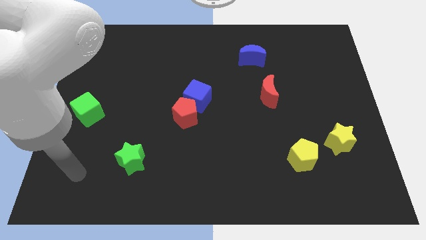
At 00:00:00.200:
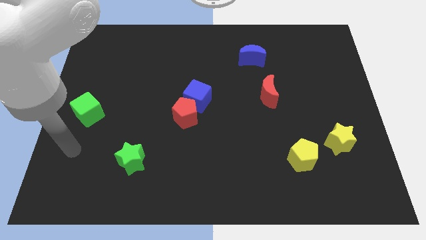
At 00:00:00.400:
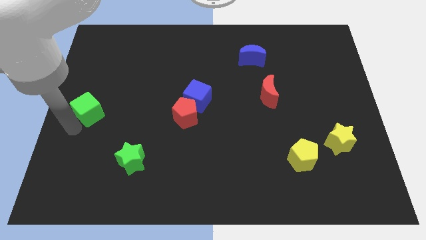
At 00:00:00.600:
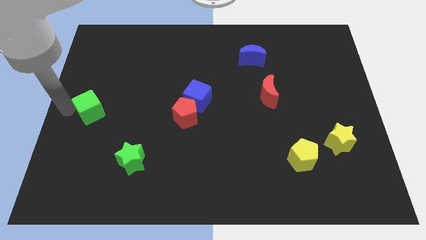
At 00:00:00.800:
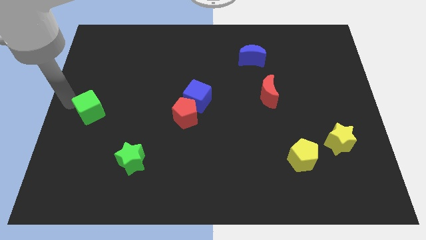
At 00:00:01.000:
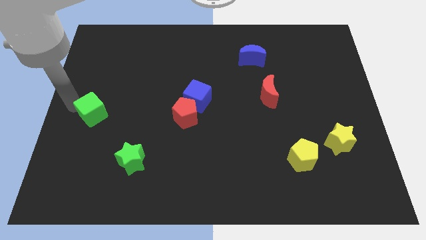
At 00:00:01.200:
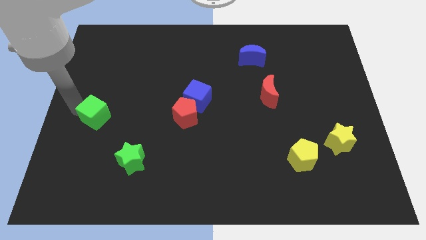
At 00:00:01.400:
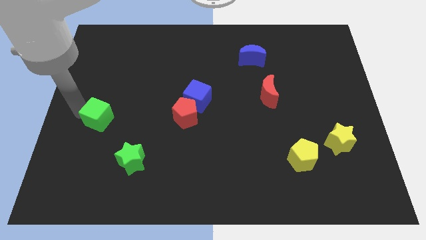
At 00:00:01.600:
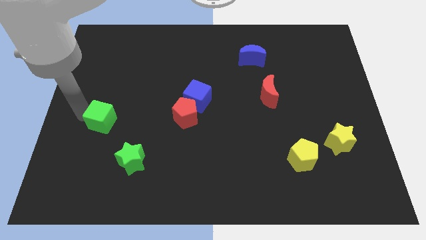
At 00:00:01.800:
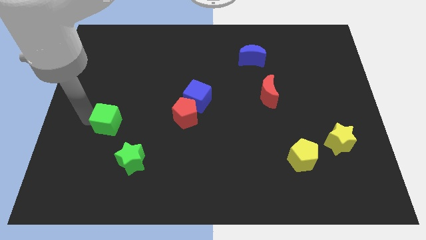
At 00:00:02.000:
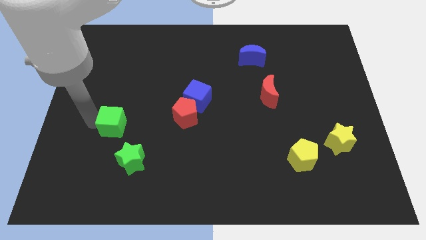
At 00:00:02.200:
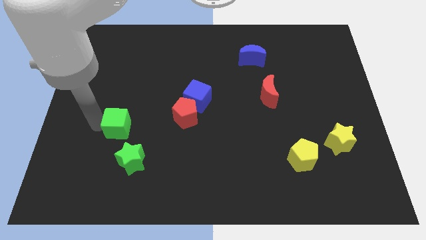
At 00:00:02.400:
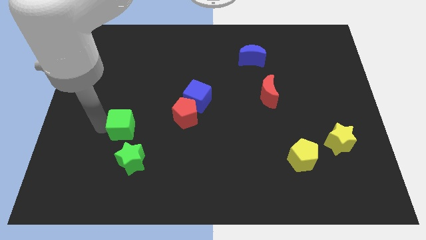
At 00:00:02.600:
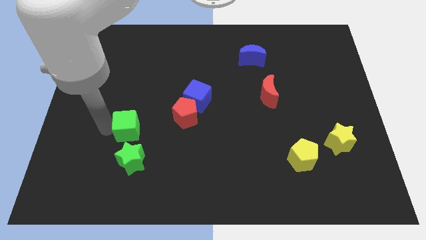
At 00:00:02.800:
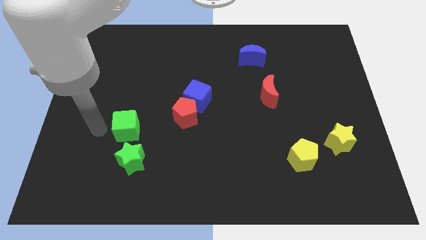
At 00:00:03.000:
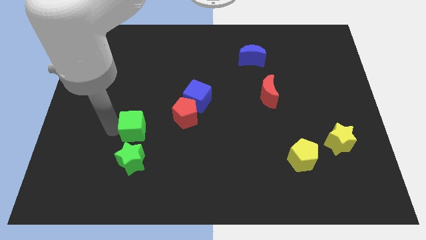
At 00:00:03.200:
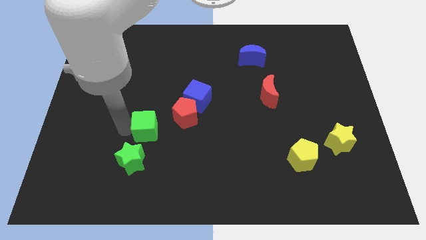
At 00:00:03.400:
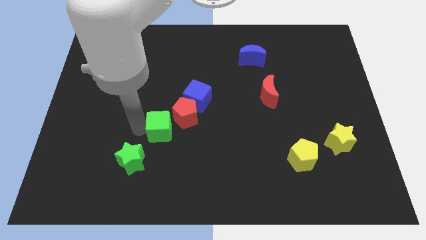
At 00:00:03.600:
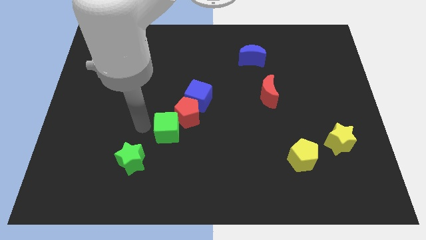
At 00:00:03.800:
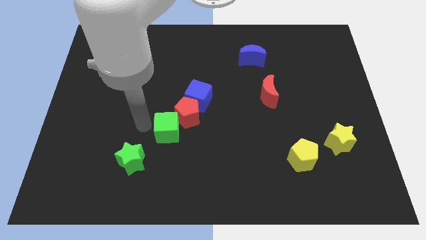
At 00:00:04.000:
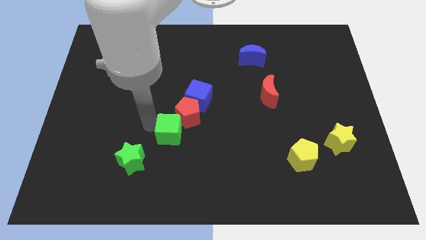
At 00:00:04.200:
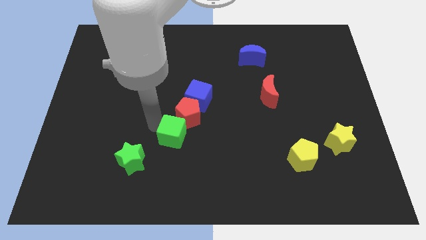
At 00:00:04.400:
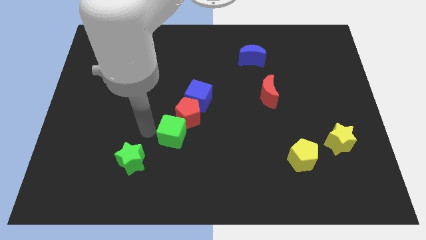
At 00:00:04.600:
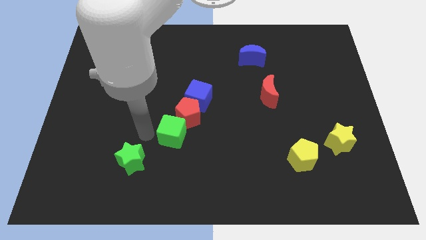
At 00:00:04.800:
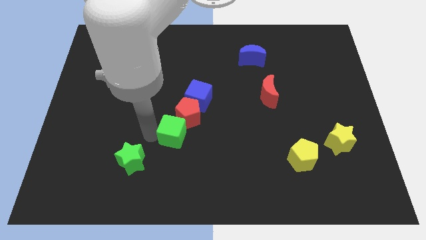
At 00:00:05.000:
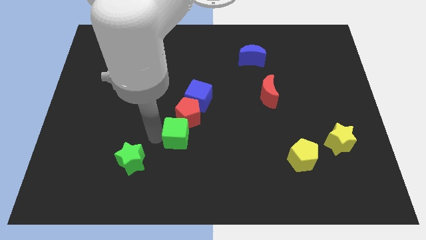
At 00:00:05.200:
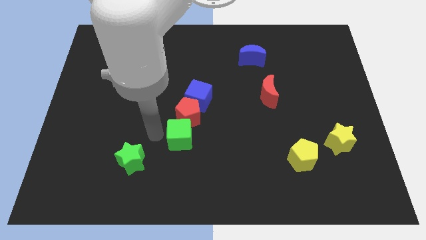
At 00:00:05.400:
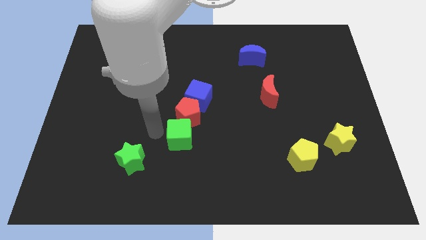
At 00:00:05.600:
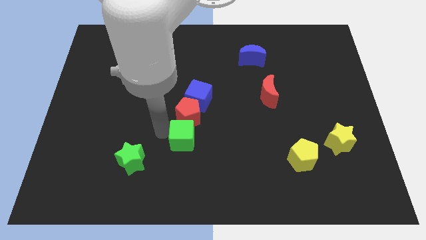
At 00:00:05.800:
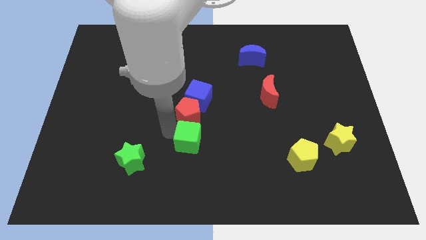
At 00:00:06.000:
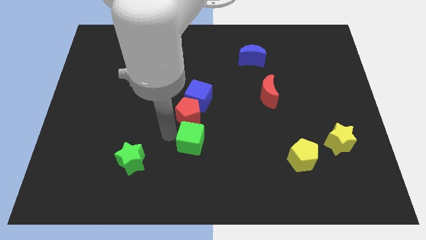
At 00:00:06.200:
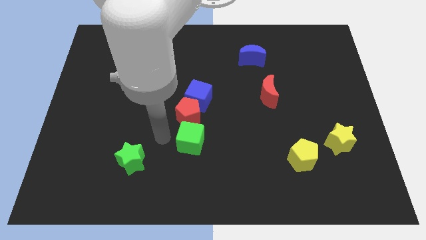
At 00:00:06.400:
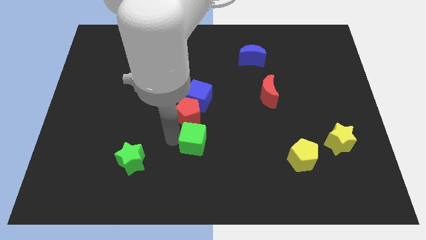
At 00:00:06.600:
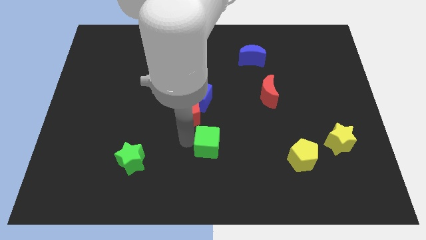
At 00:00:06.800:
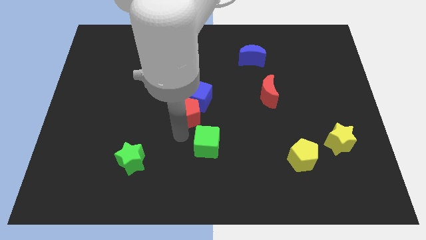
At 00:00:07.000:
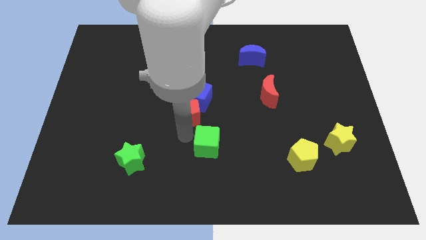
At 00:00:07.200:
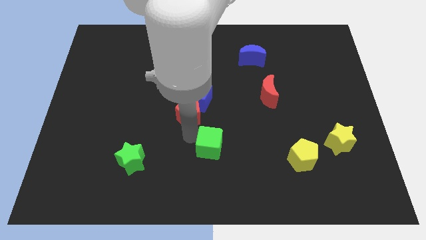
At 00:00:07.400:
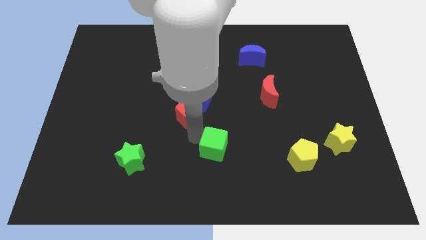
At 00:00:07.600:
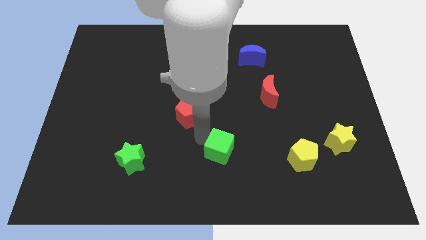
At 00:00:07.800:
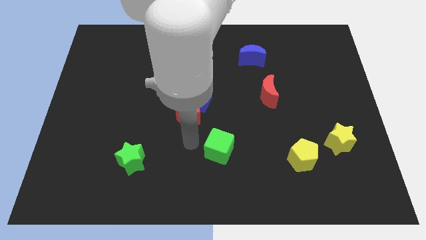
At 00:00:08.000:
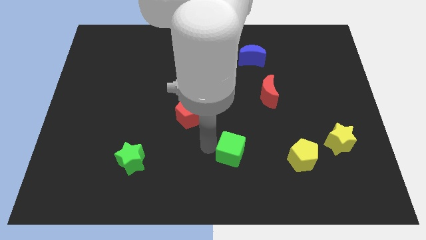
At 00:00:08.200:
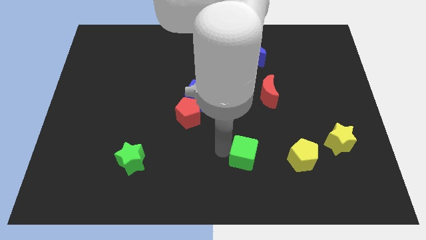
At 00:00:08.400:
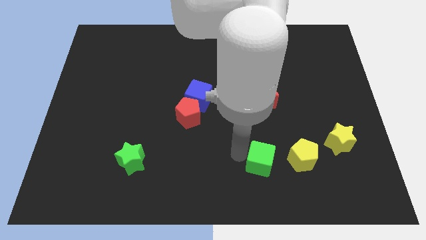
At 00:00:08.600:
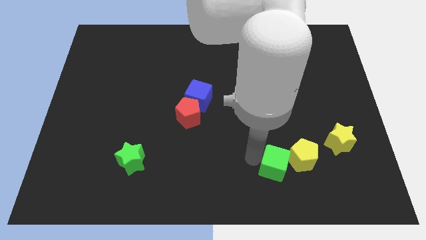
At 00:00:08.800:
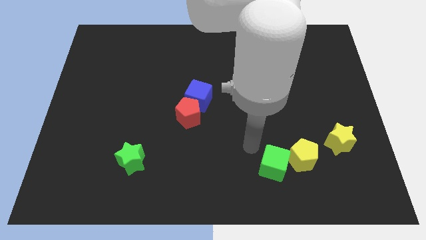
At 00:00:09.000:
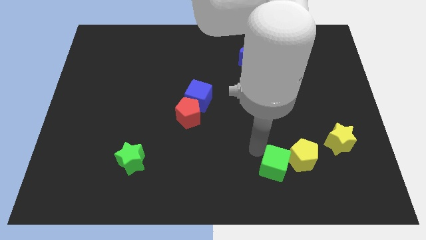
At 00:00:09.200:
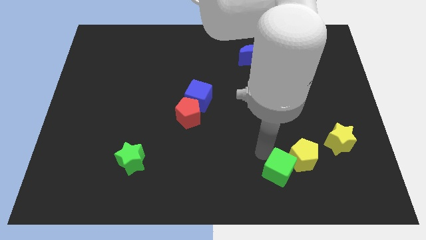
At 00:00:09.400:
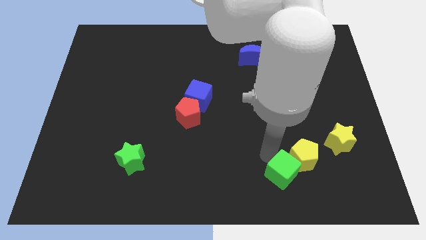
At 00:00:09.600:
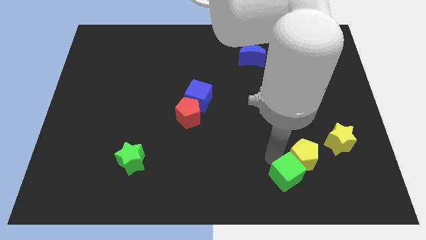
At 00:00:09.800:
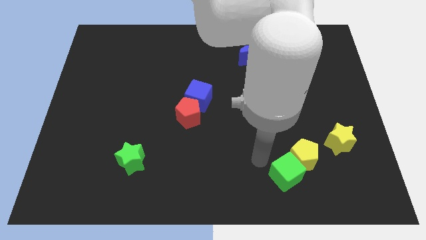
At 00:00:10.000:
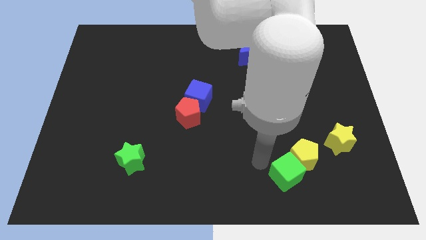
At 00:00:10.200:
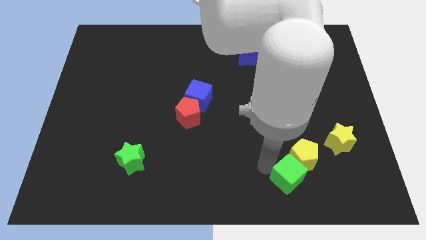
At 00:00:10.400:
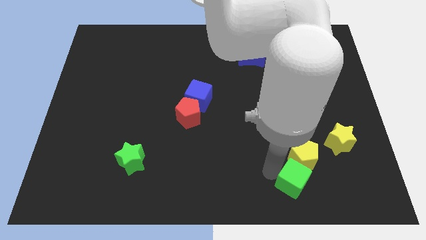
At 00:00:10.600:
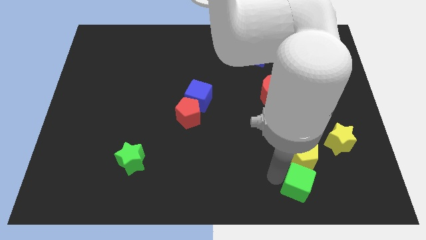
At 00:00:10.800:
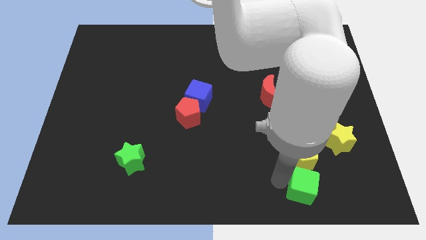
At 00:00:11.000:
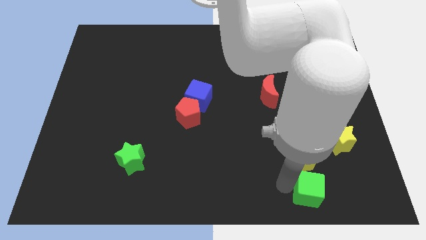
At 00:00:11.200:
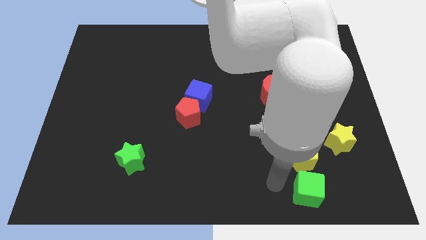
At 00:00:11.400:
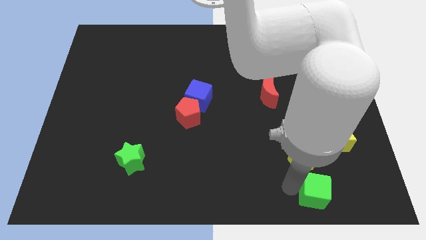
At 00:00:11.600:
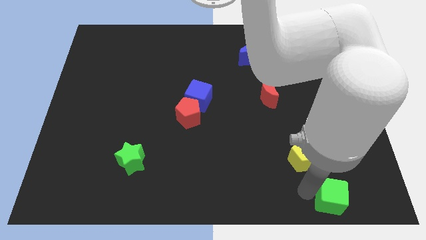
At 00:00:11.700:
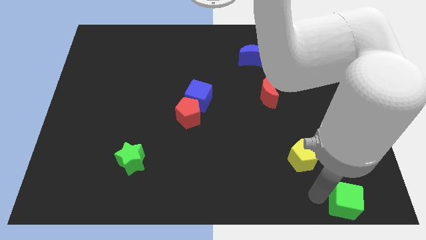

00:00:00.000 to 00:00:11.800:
put the green cube to the bottom right
